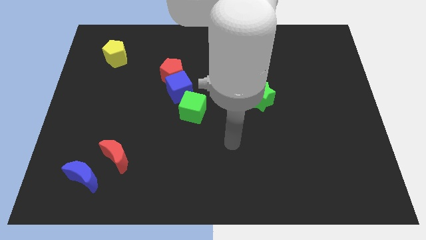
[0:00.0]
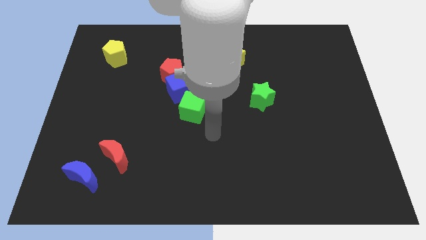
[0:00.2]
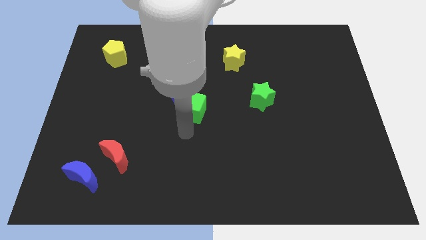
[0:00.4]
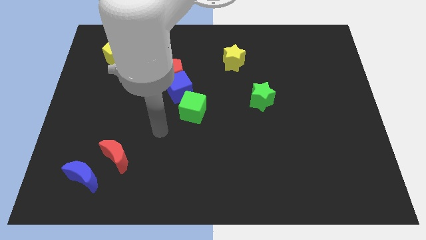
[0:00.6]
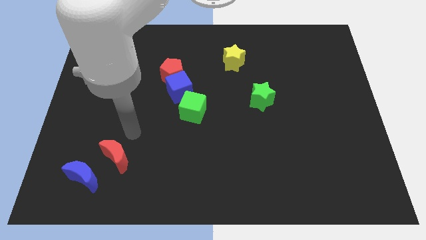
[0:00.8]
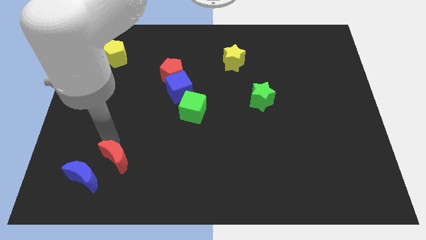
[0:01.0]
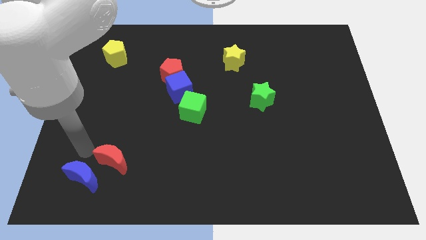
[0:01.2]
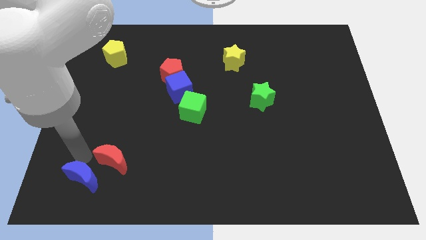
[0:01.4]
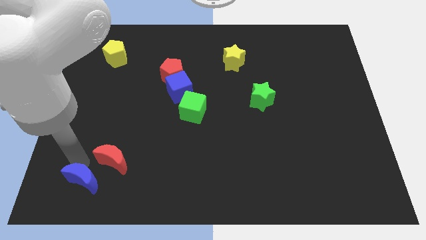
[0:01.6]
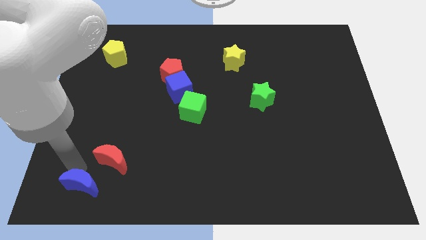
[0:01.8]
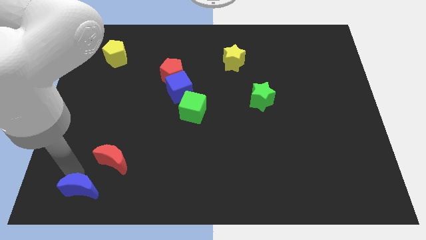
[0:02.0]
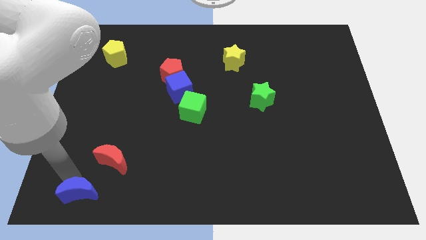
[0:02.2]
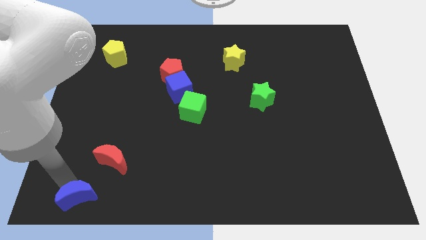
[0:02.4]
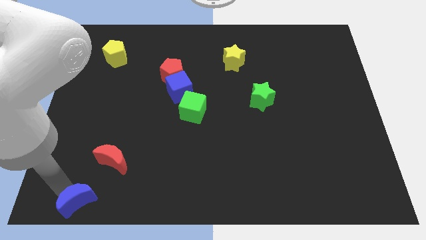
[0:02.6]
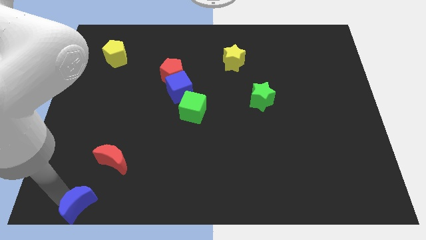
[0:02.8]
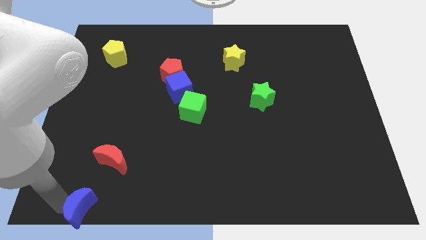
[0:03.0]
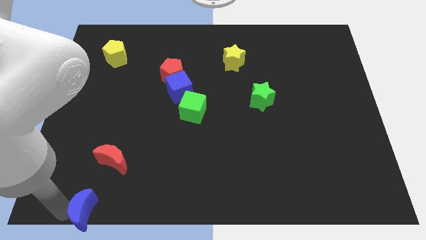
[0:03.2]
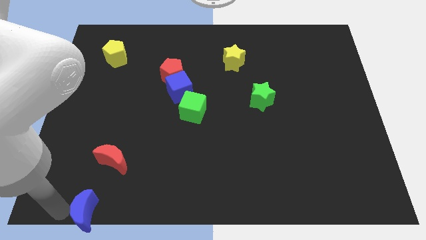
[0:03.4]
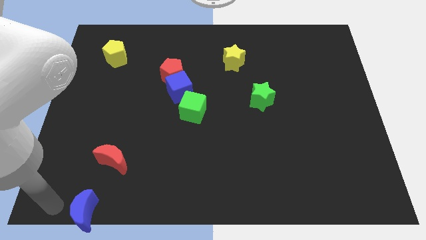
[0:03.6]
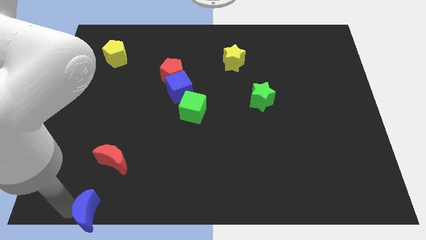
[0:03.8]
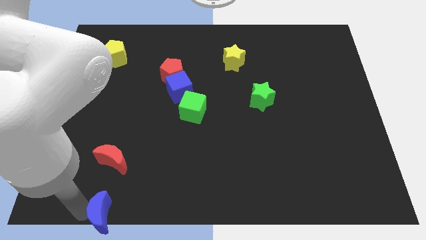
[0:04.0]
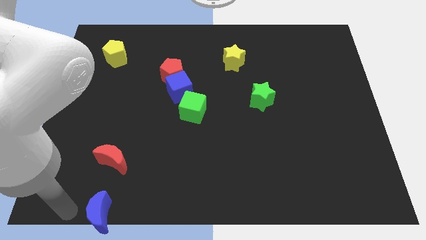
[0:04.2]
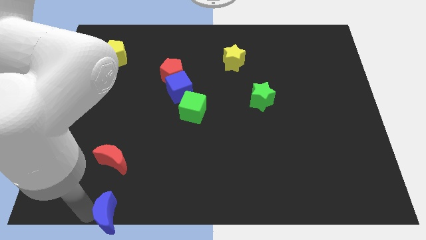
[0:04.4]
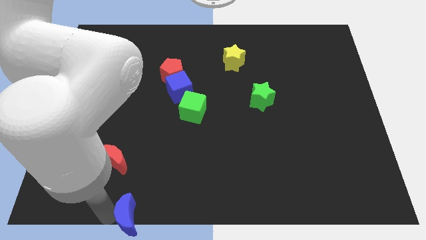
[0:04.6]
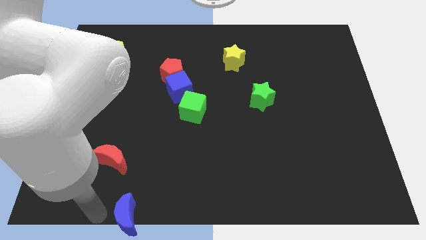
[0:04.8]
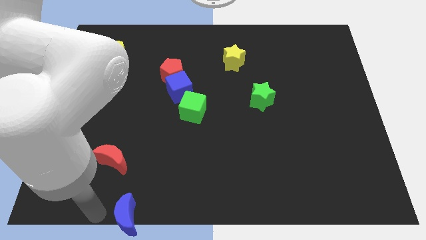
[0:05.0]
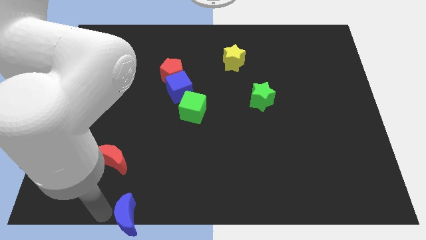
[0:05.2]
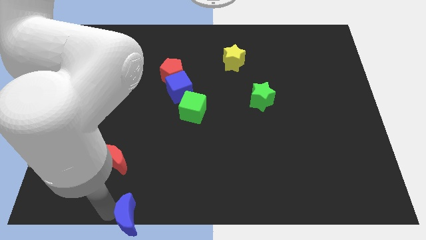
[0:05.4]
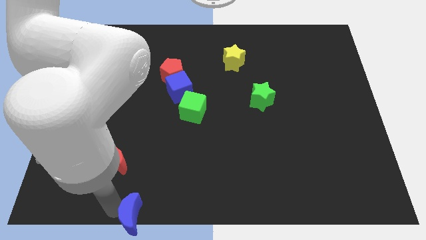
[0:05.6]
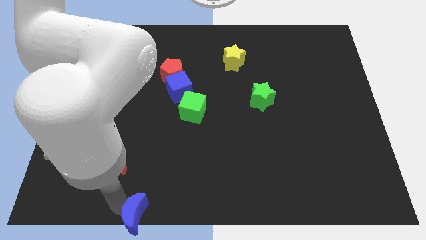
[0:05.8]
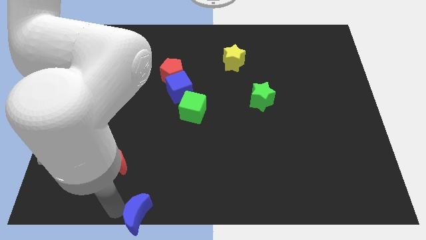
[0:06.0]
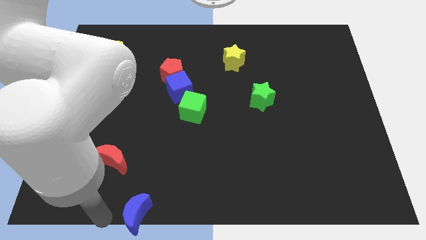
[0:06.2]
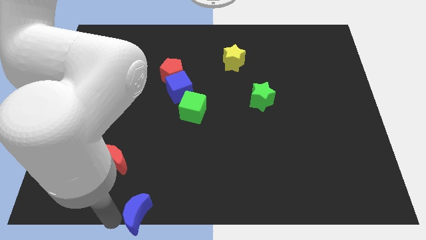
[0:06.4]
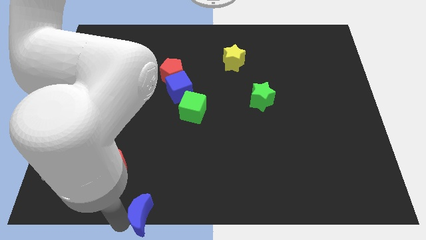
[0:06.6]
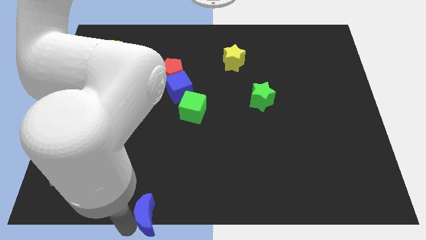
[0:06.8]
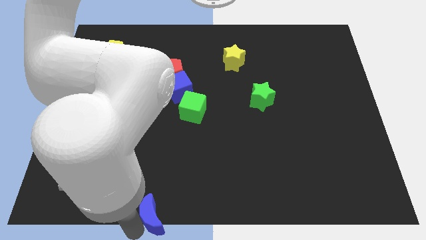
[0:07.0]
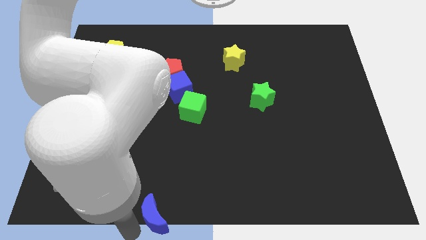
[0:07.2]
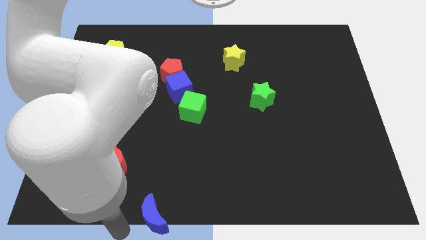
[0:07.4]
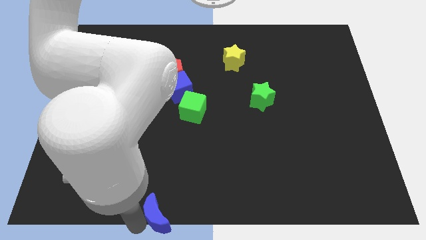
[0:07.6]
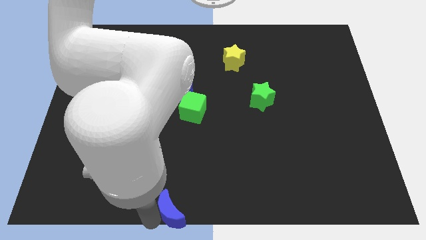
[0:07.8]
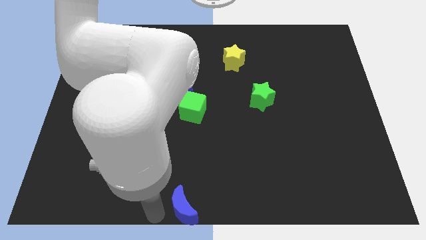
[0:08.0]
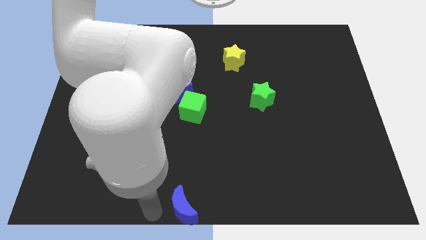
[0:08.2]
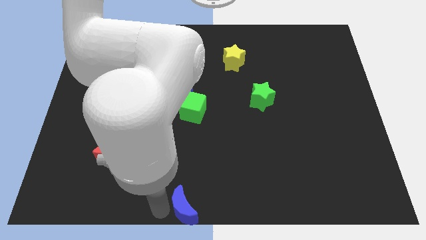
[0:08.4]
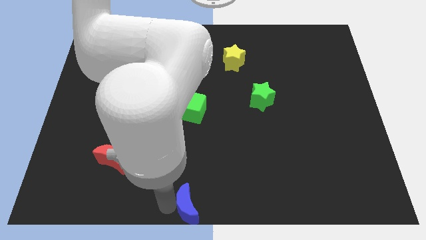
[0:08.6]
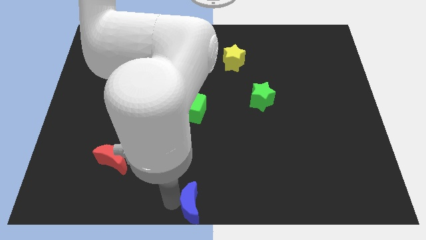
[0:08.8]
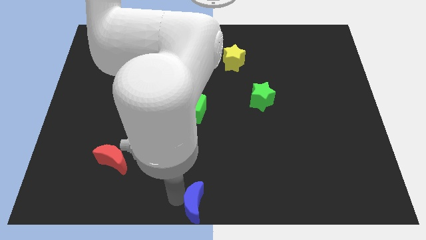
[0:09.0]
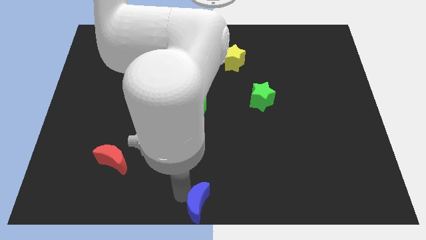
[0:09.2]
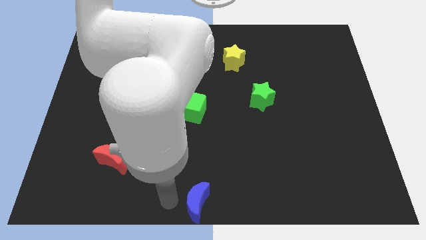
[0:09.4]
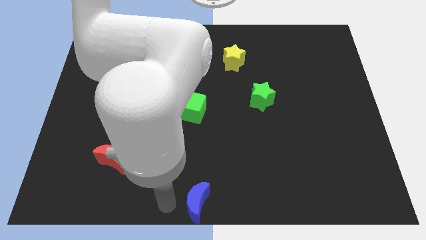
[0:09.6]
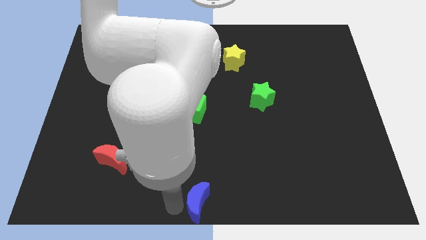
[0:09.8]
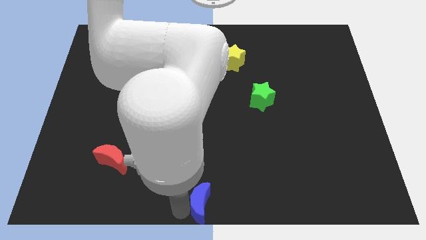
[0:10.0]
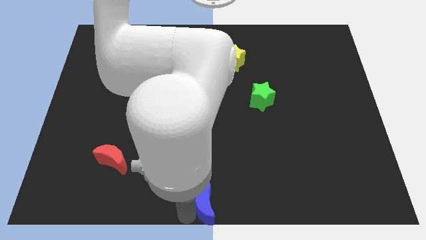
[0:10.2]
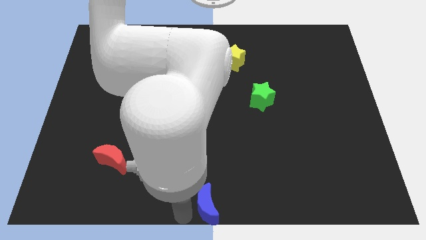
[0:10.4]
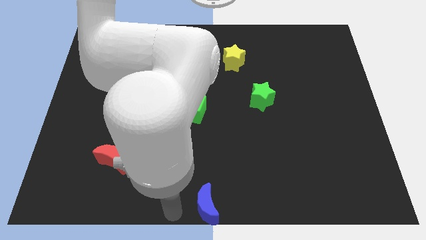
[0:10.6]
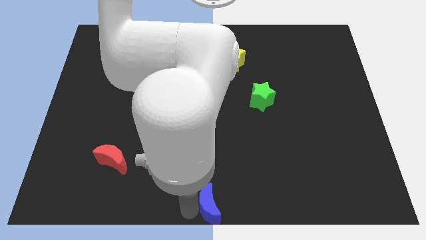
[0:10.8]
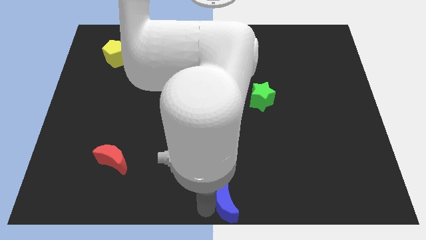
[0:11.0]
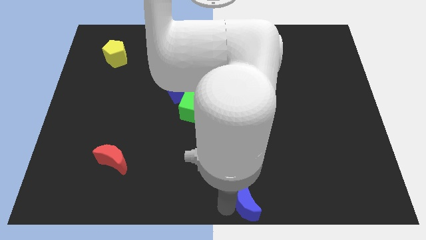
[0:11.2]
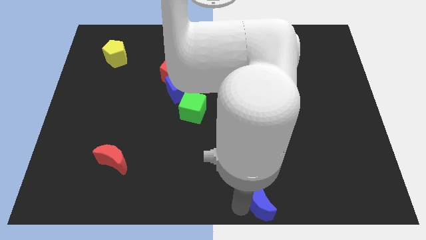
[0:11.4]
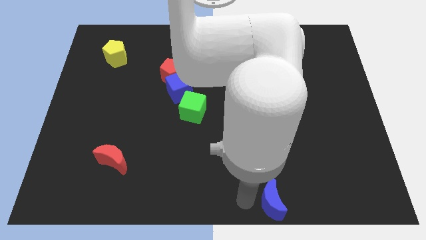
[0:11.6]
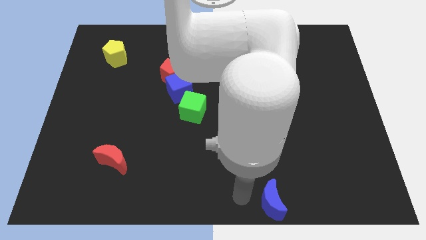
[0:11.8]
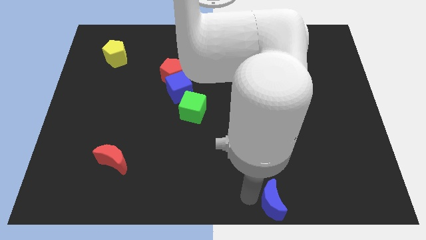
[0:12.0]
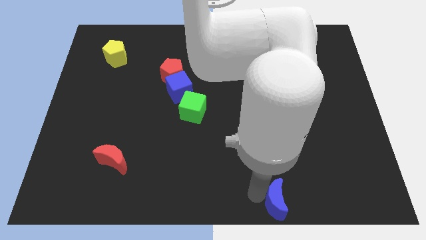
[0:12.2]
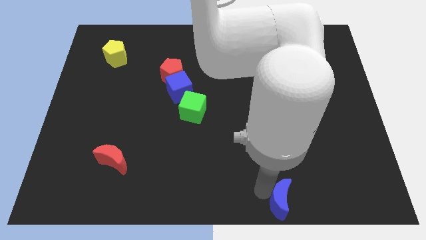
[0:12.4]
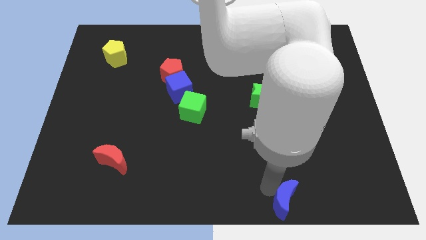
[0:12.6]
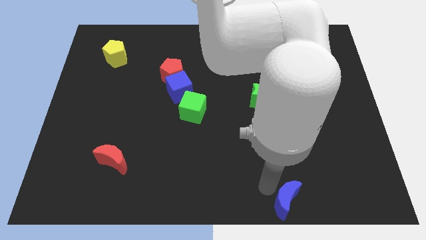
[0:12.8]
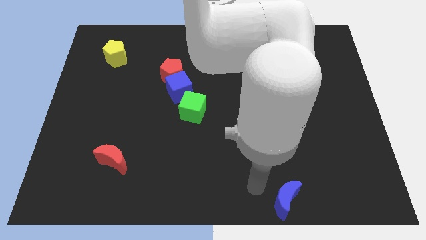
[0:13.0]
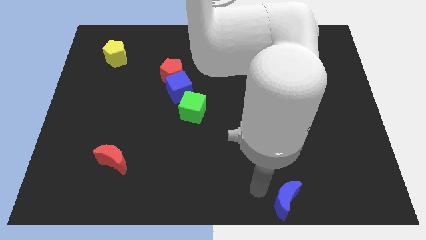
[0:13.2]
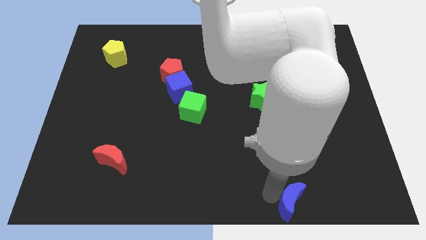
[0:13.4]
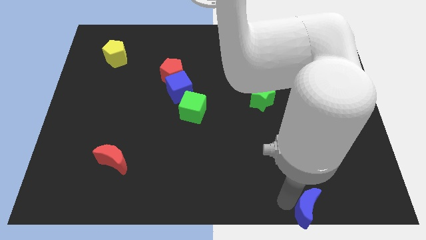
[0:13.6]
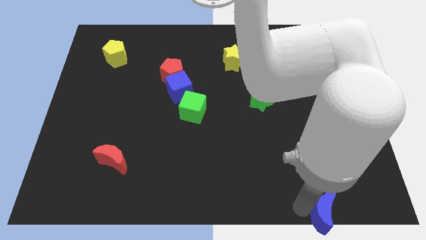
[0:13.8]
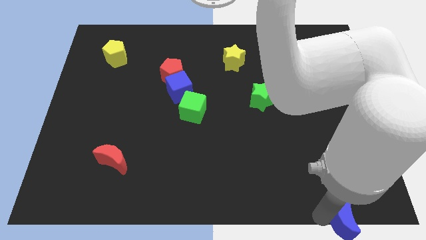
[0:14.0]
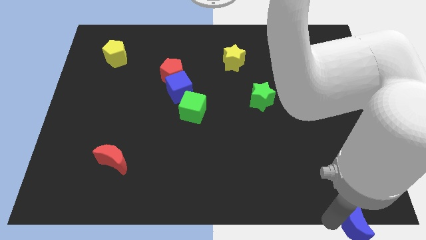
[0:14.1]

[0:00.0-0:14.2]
slide the blue moon to the bottom right corner
